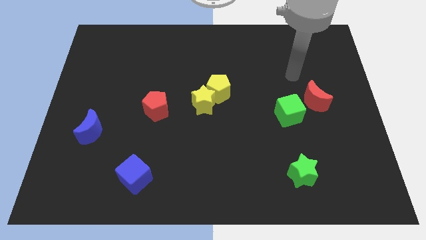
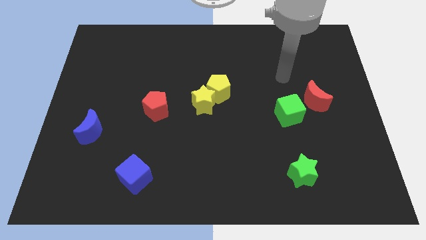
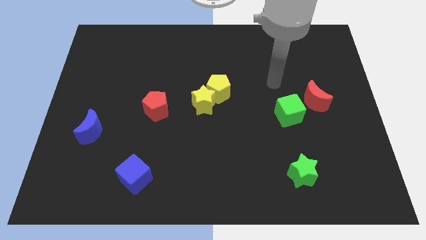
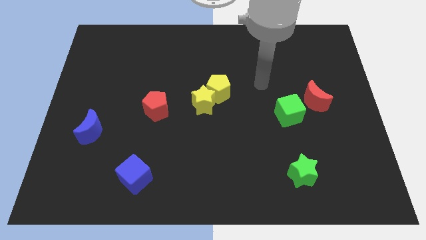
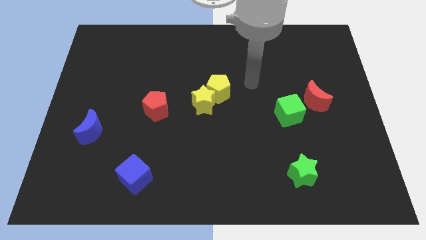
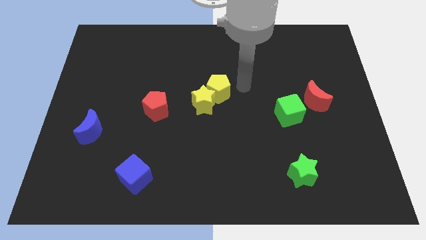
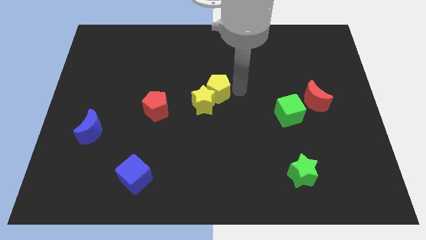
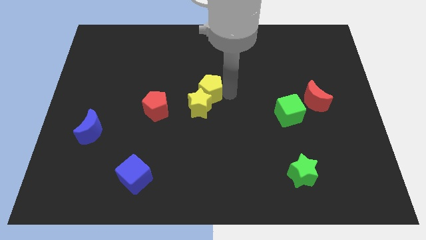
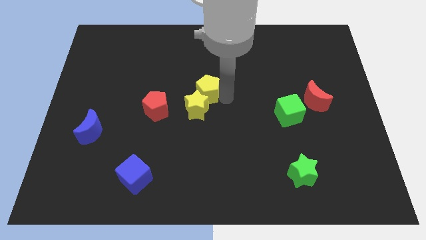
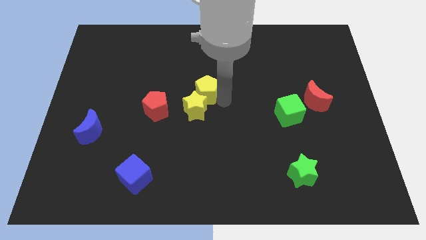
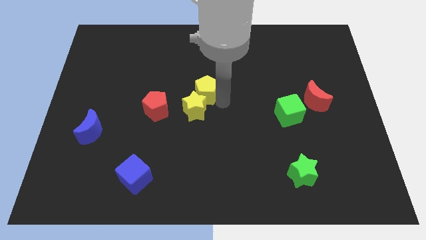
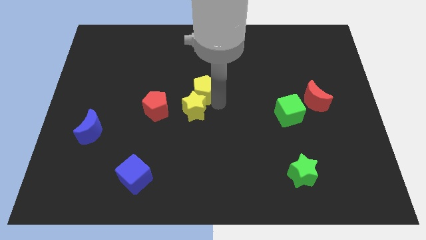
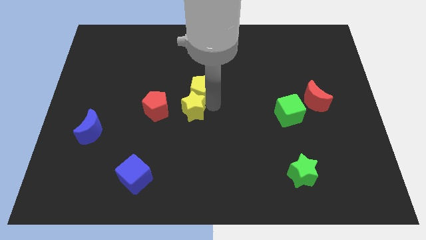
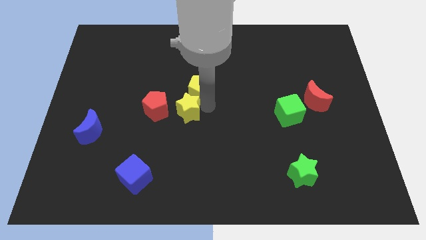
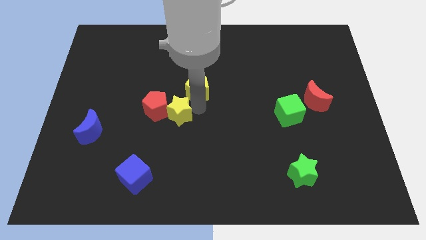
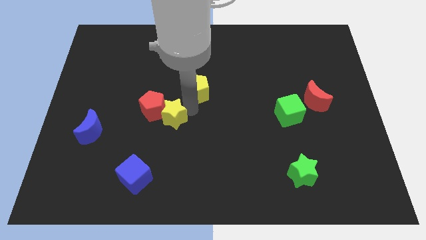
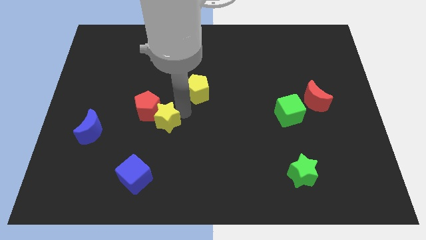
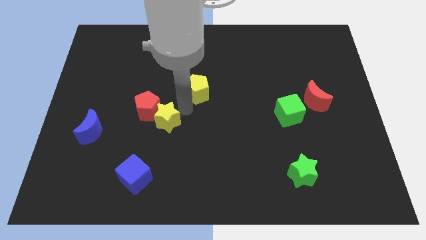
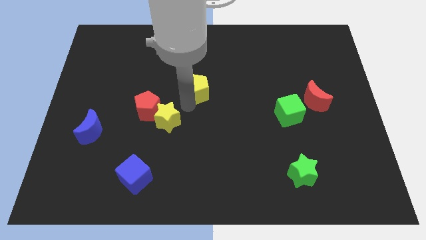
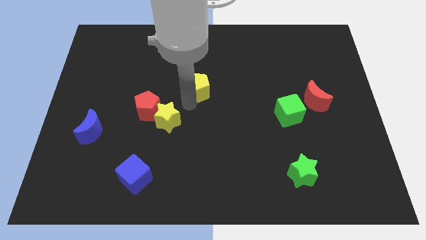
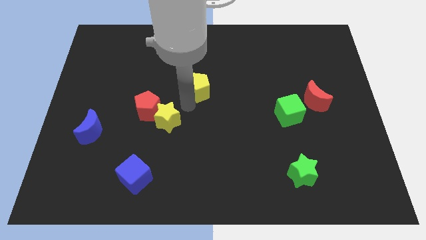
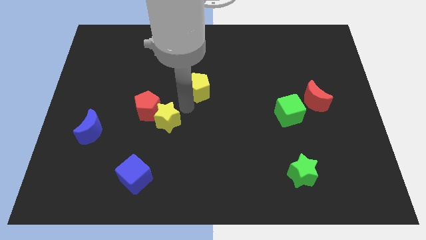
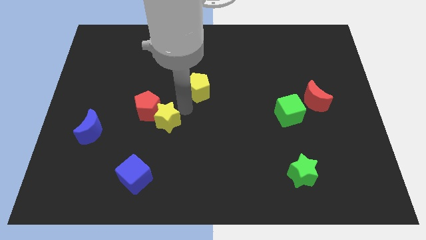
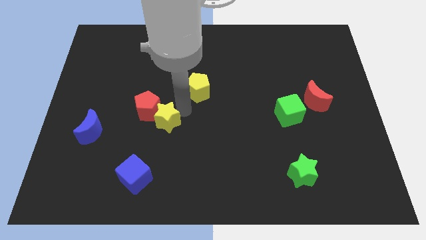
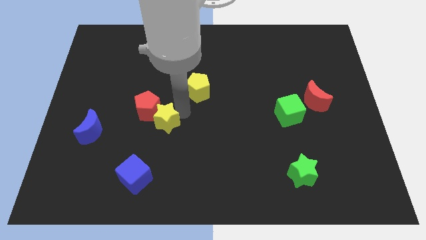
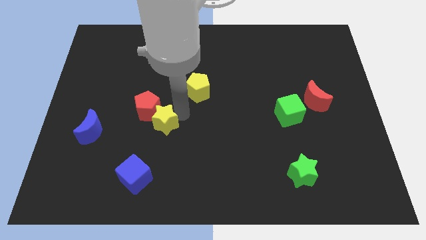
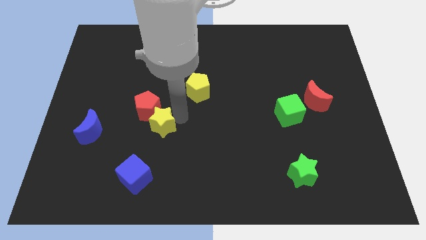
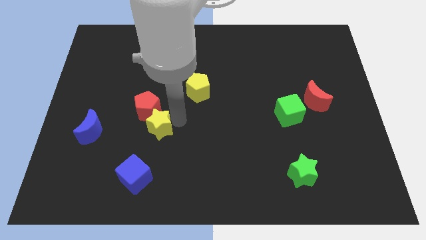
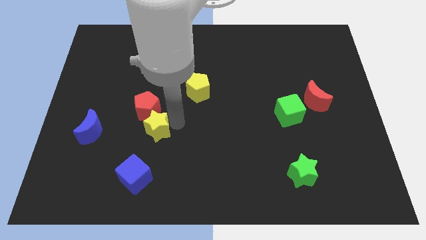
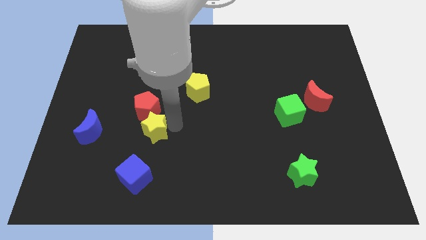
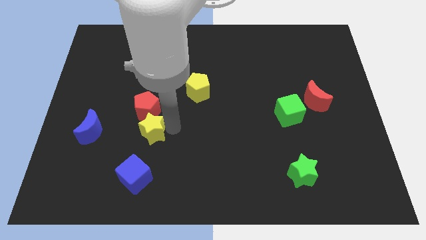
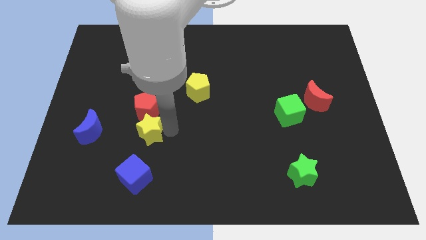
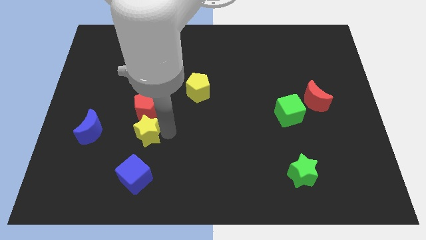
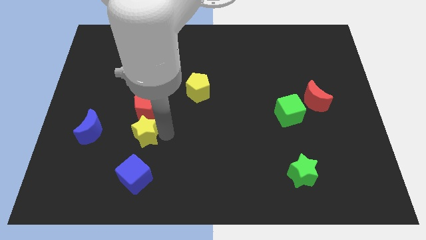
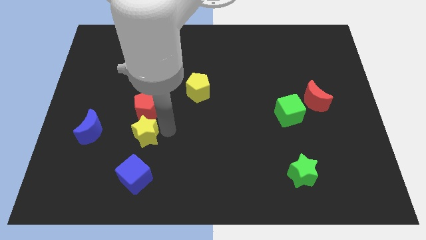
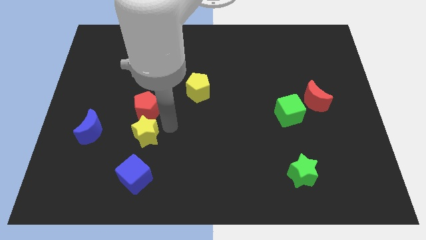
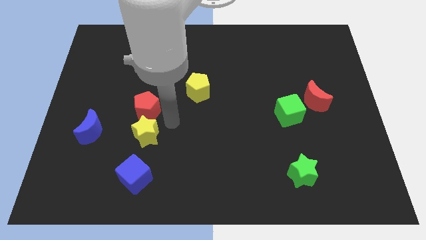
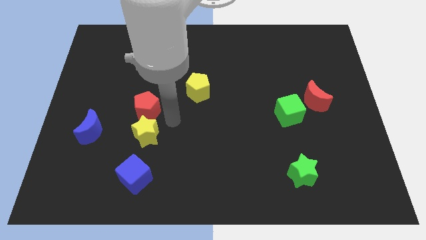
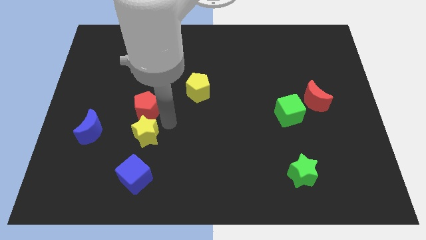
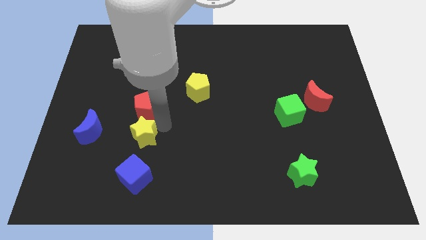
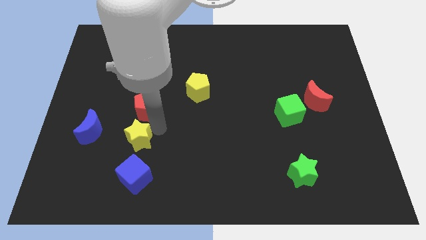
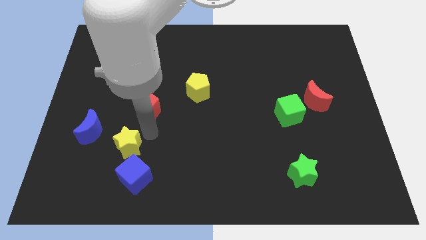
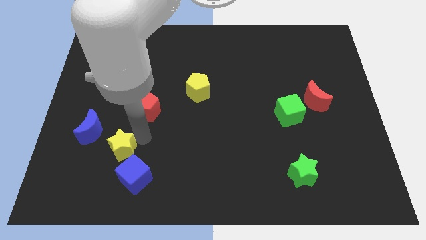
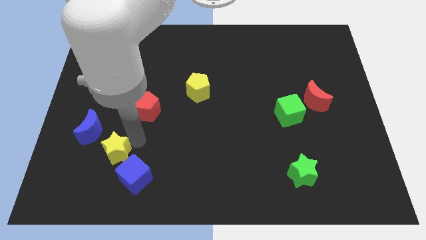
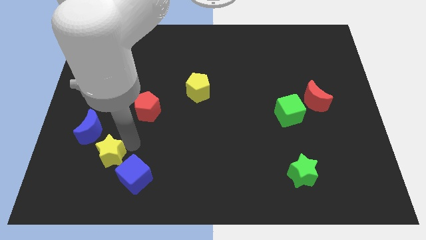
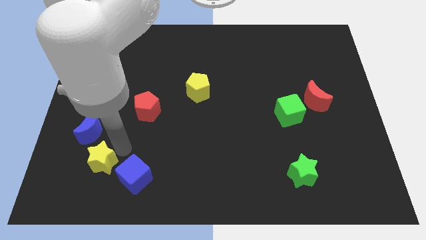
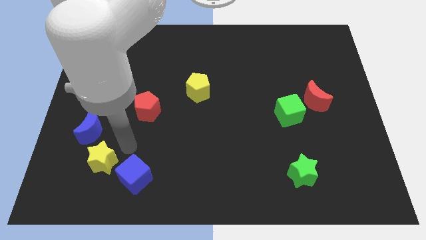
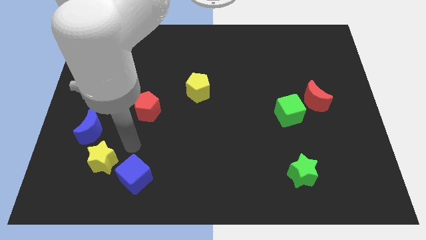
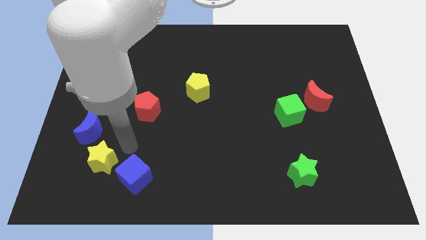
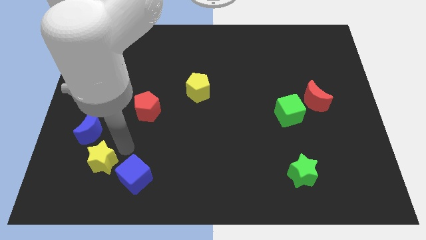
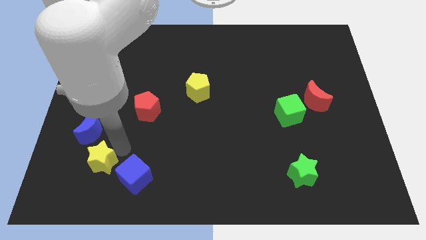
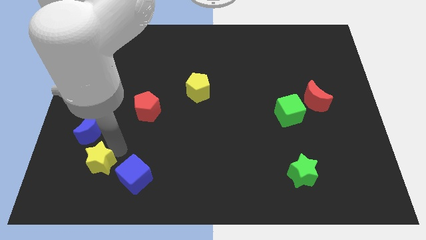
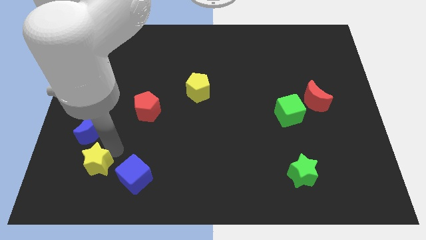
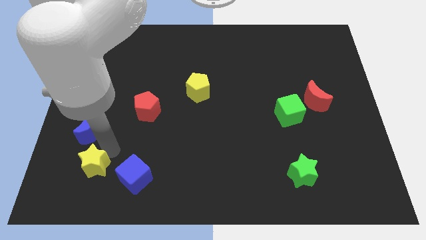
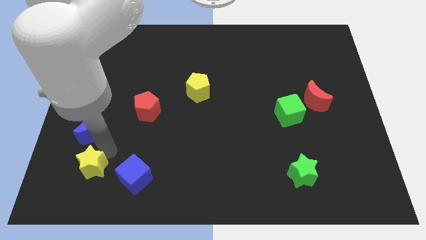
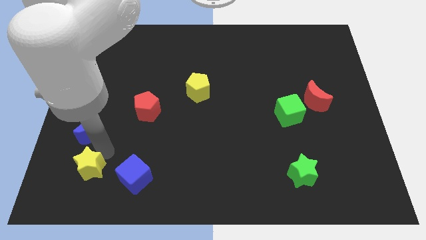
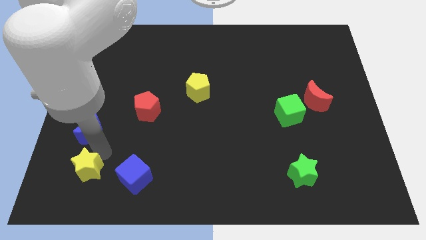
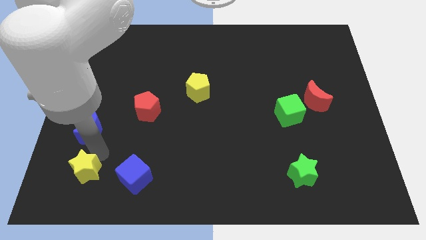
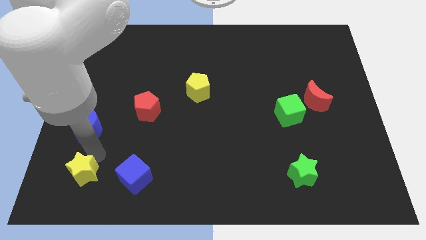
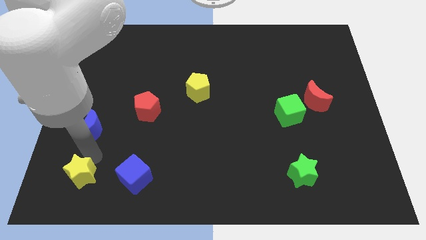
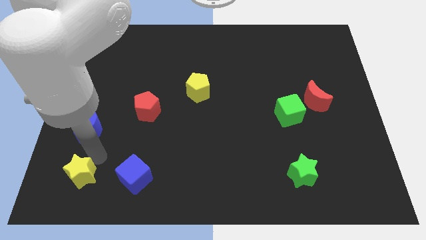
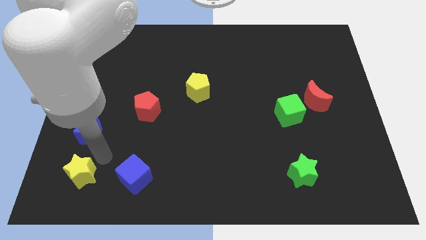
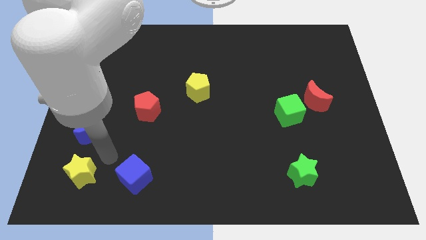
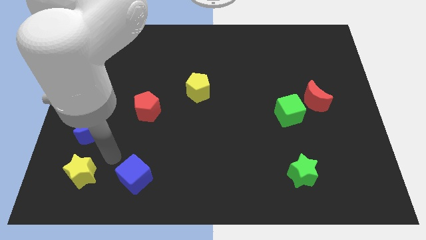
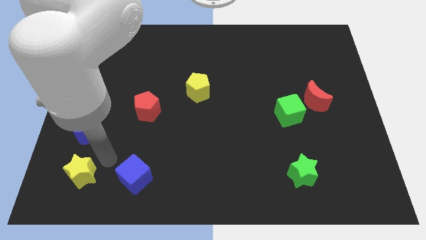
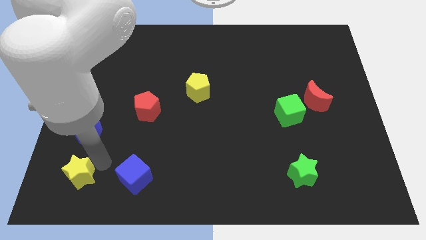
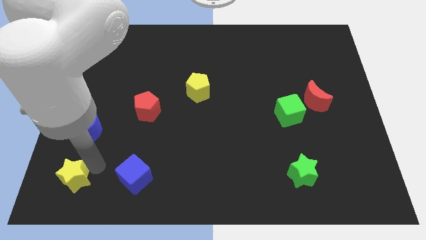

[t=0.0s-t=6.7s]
slide the yellow star to the bottom left corner

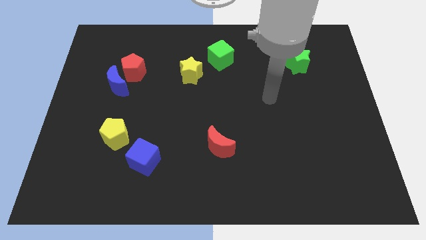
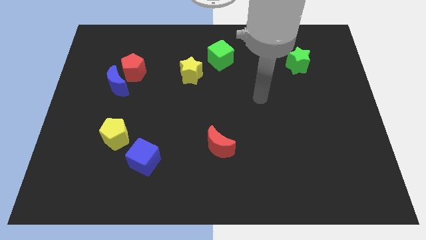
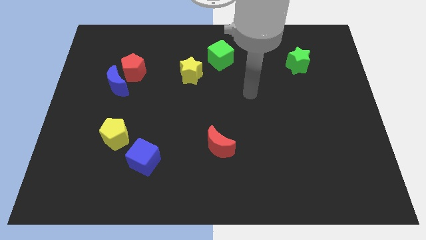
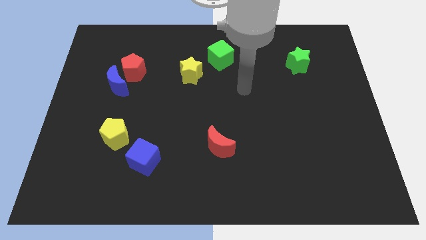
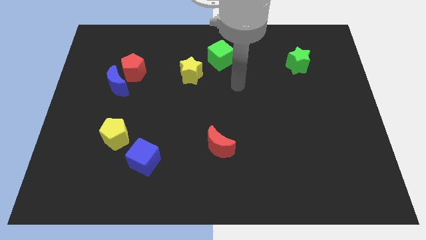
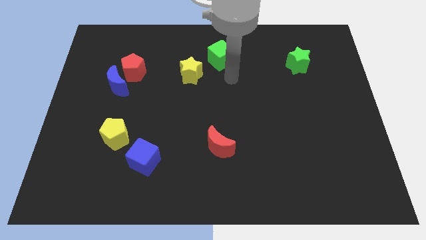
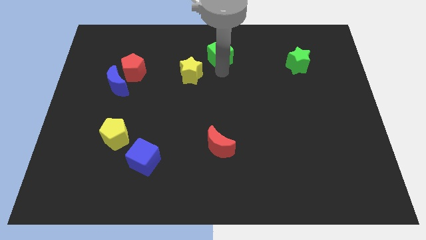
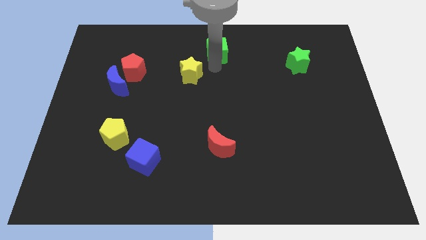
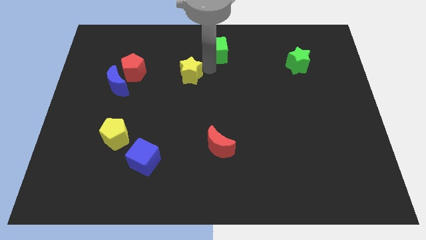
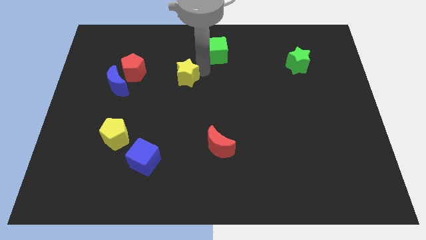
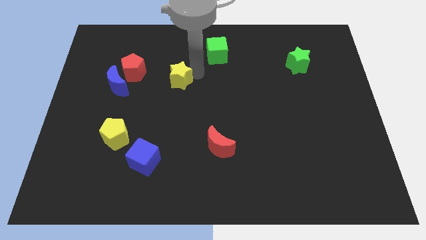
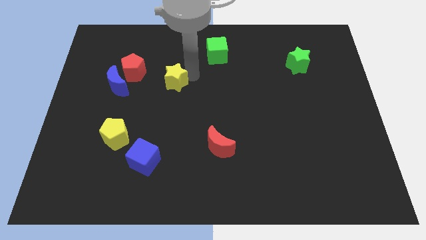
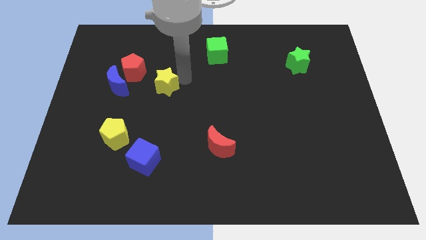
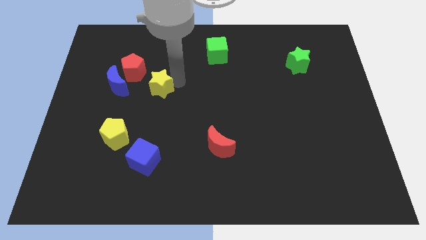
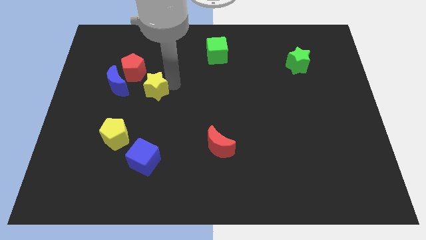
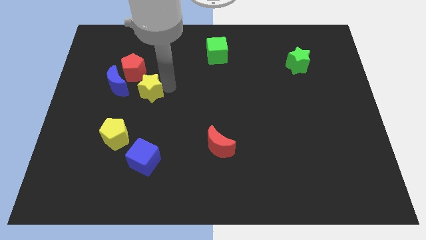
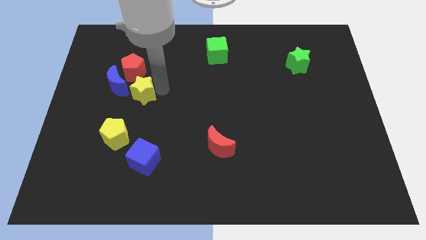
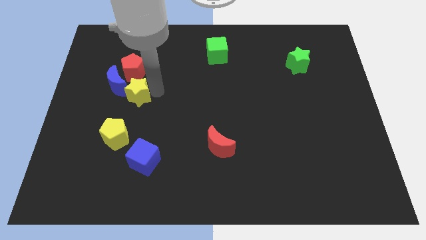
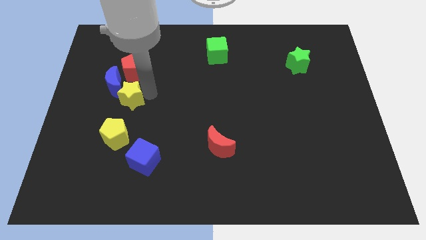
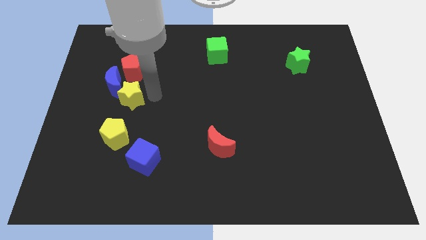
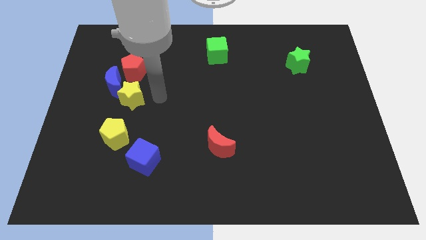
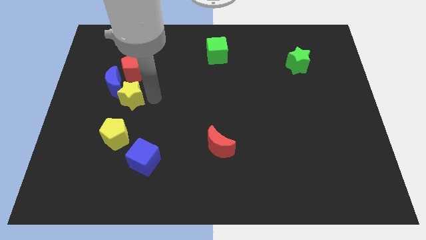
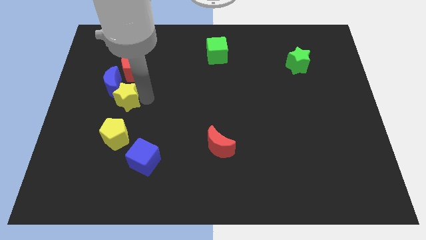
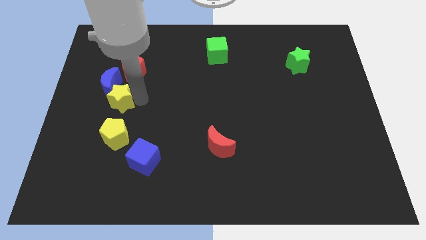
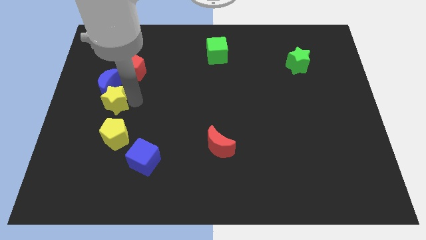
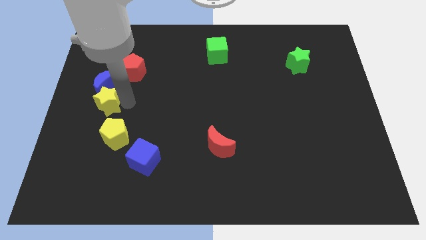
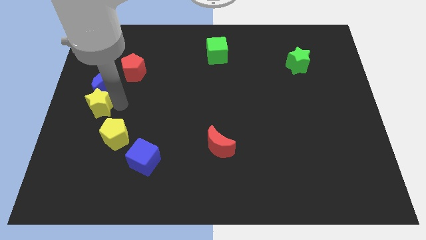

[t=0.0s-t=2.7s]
put the yellow star to the left side
